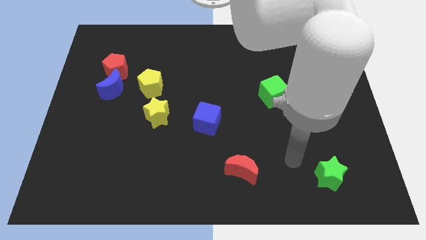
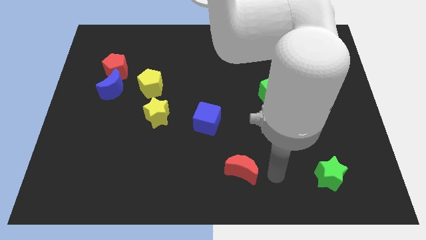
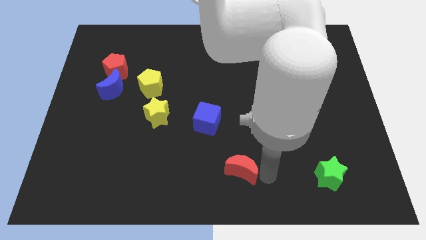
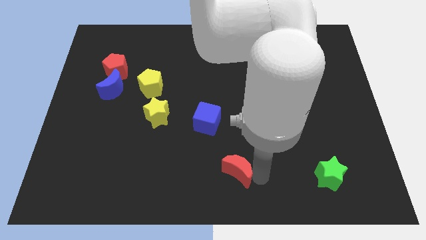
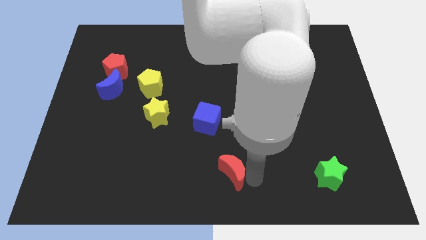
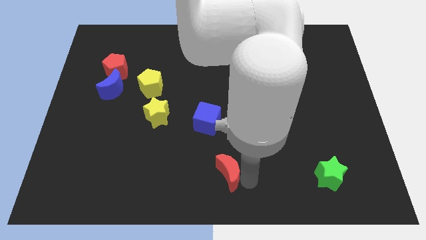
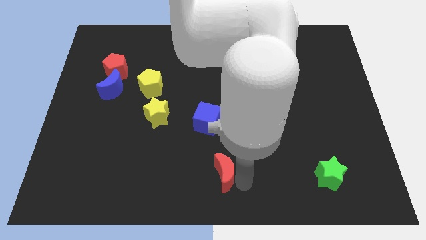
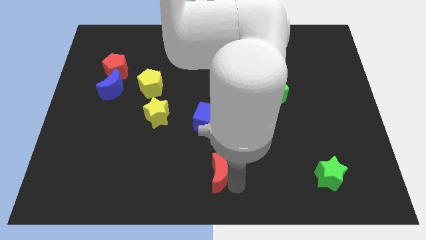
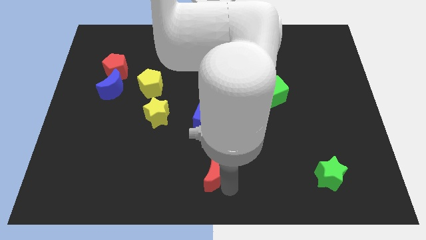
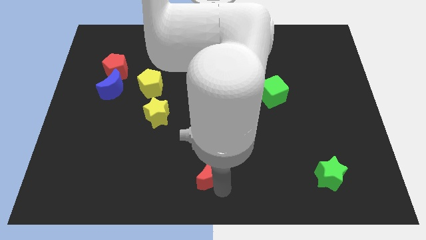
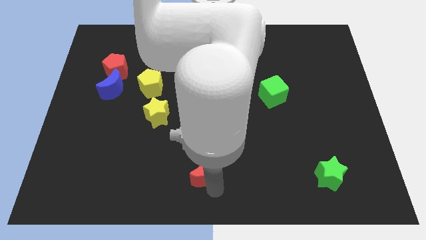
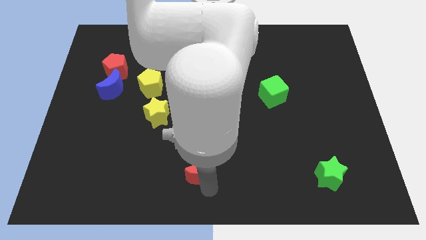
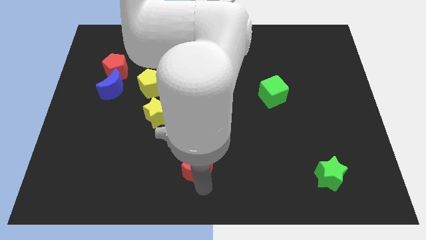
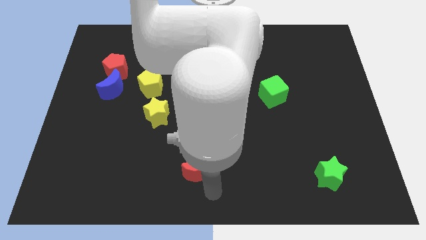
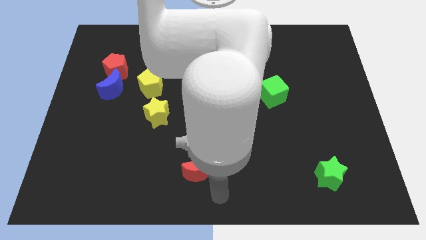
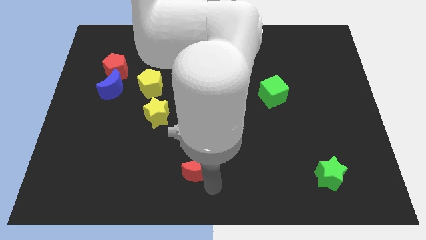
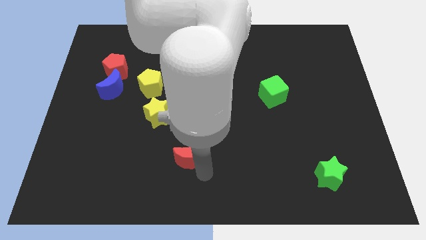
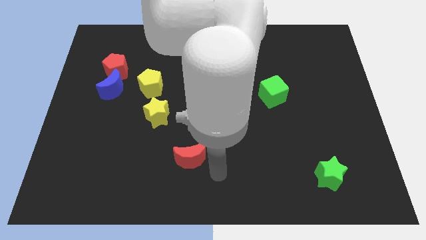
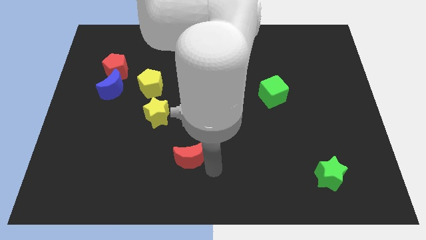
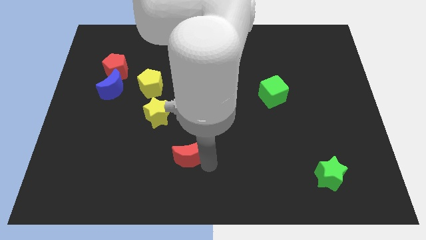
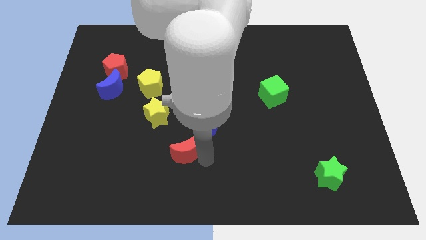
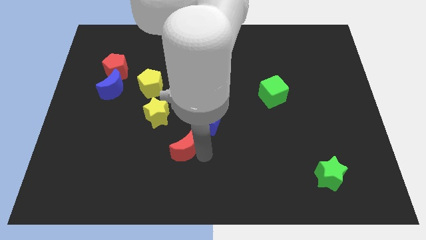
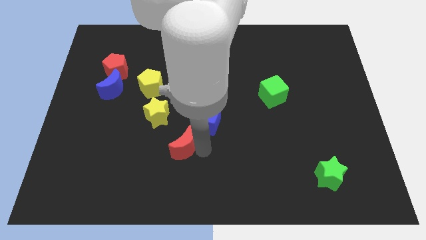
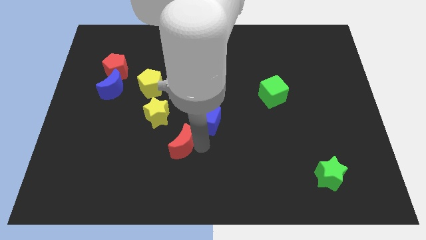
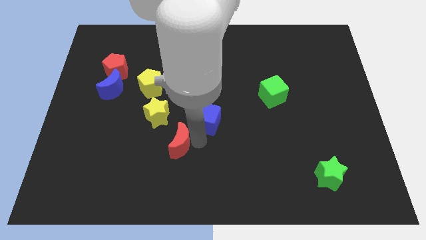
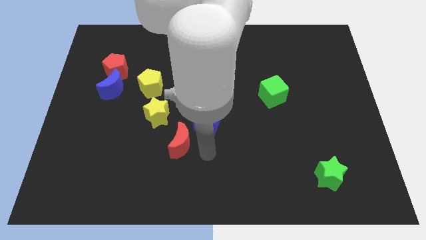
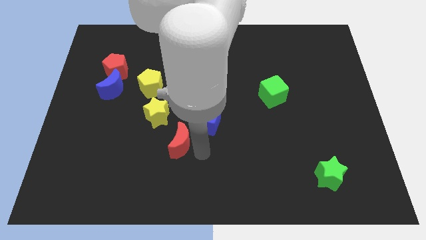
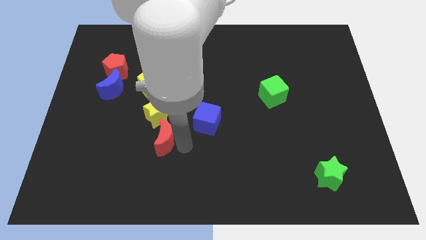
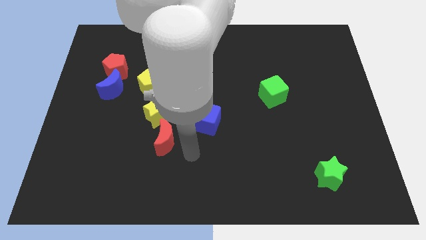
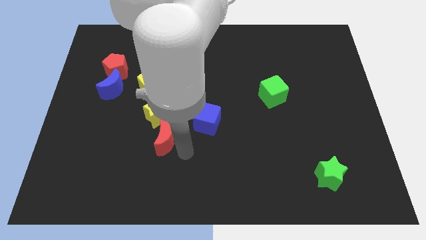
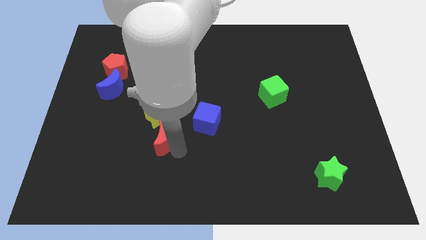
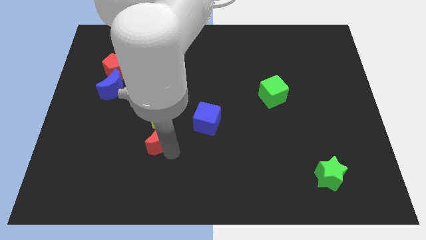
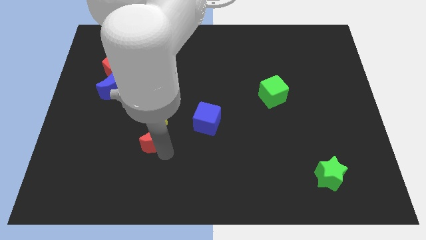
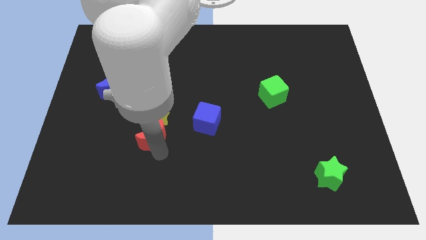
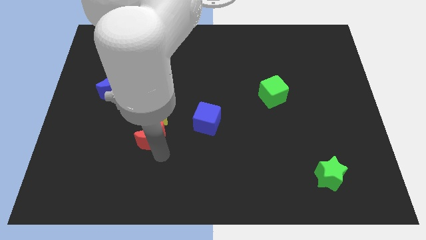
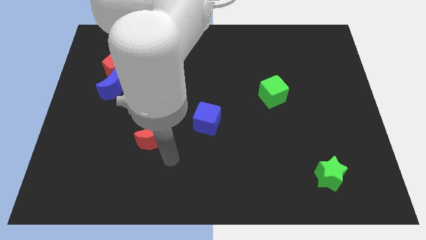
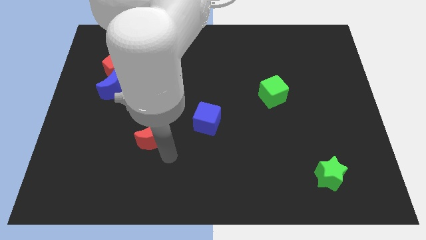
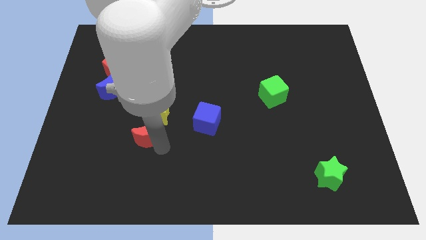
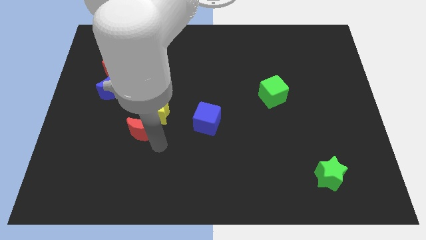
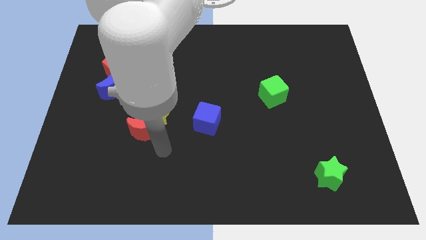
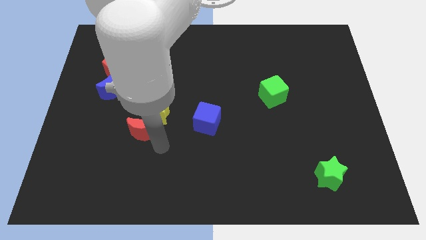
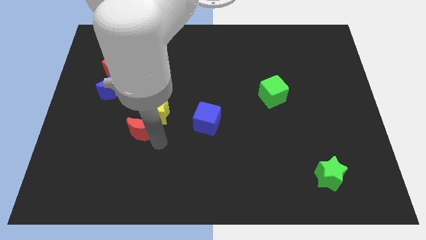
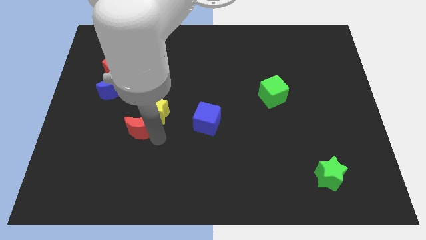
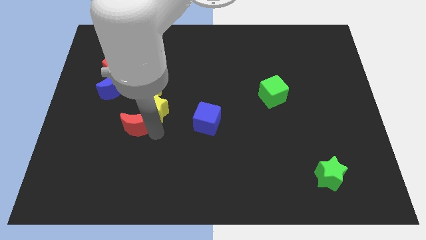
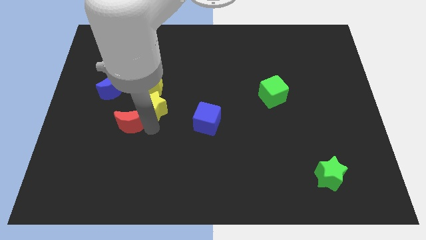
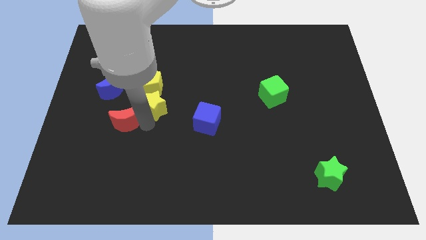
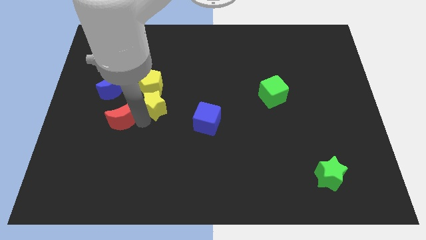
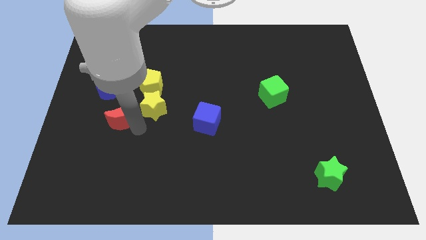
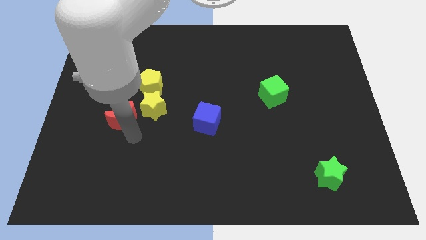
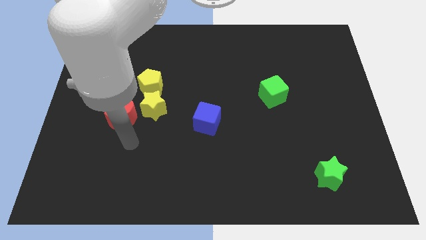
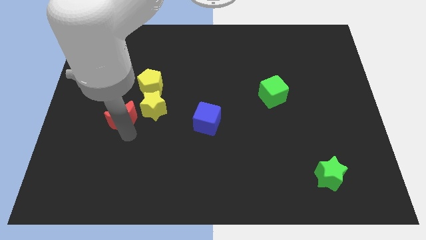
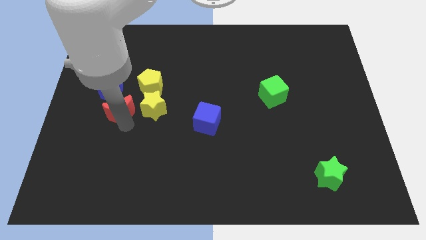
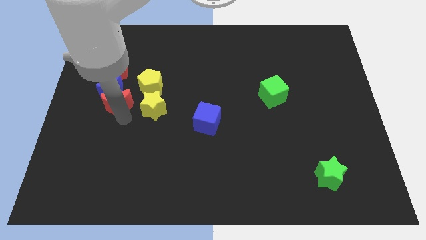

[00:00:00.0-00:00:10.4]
put the red moon towards the blue moon

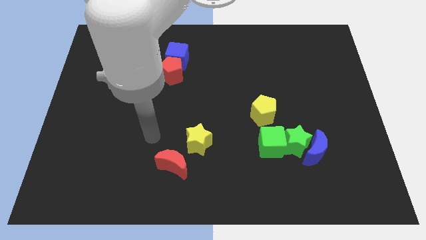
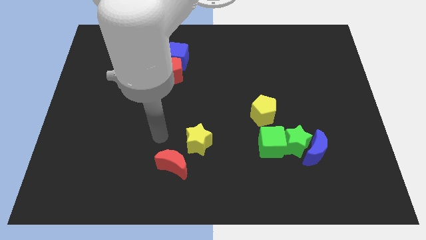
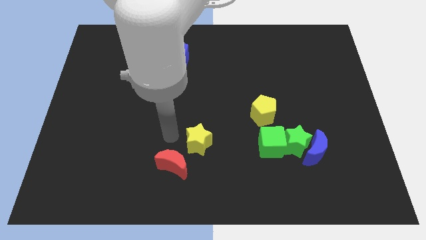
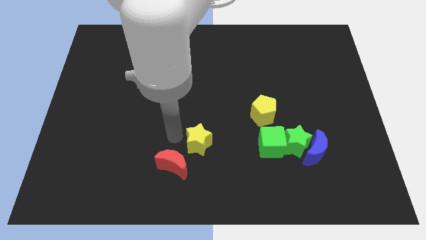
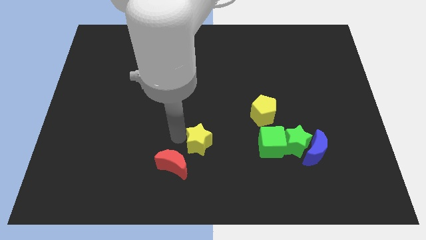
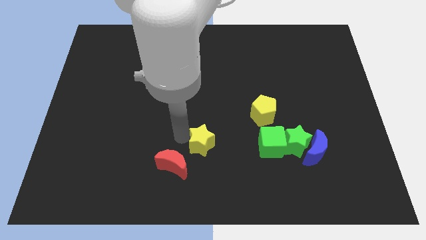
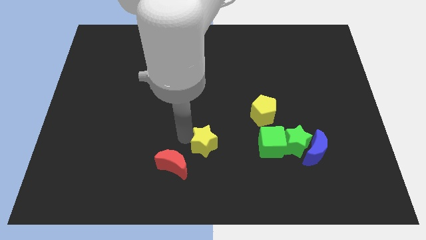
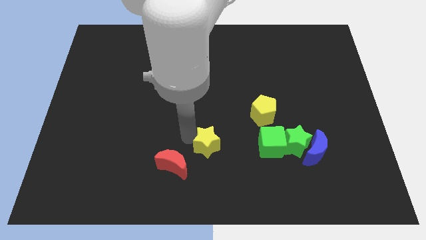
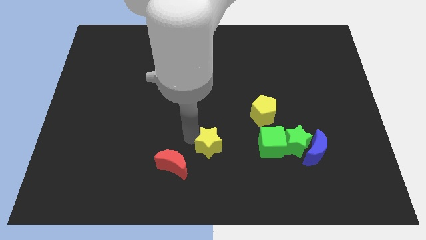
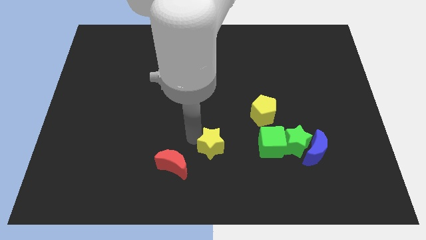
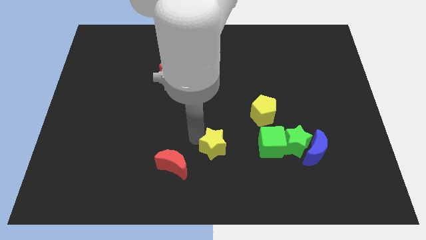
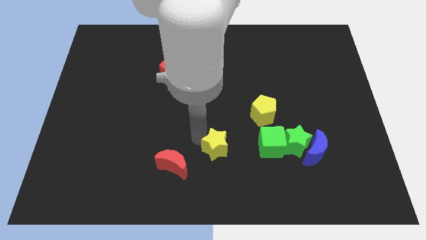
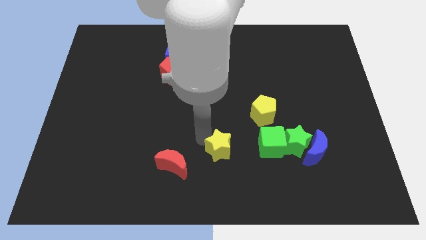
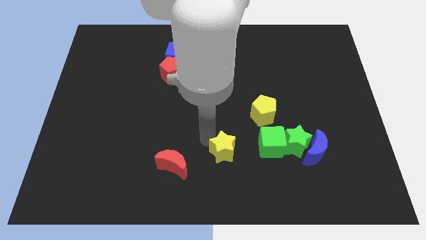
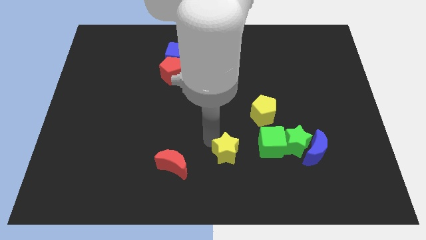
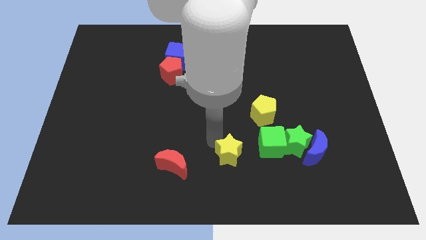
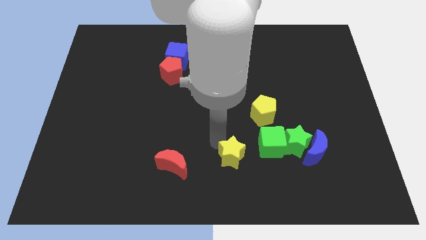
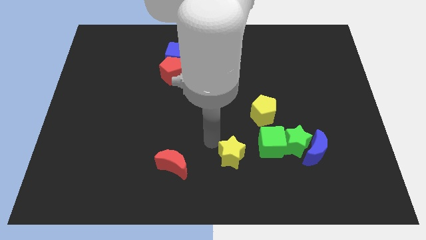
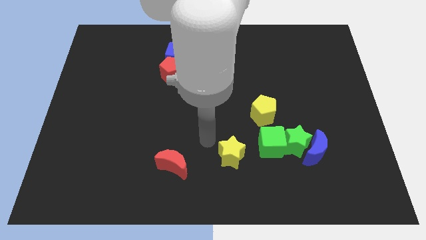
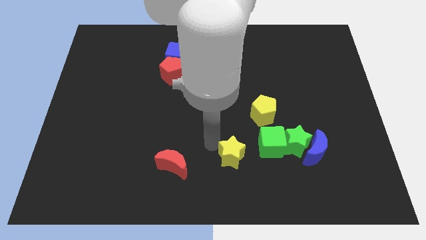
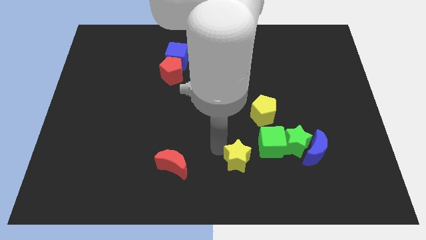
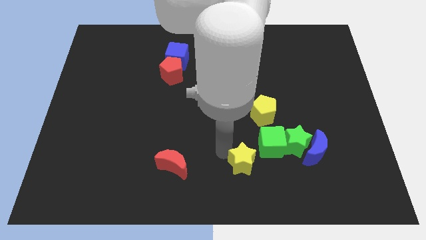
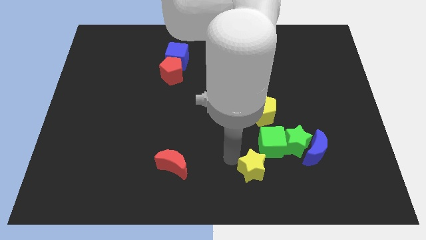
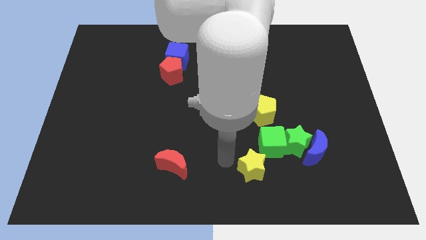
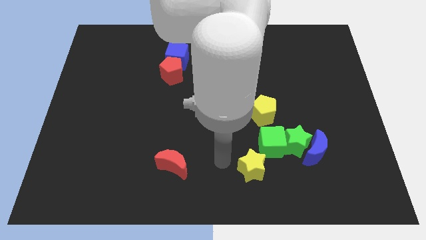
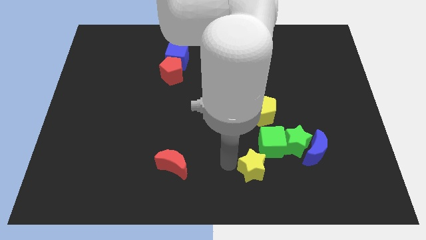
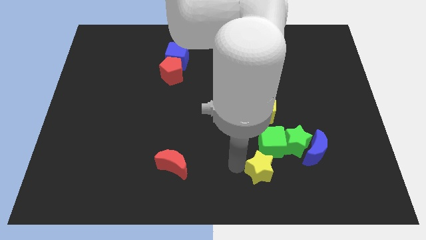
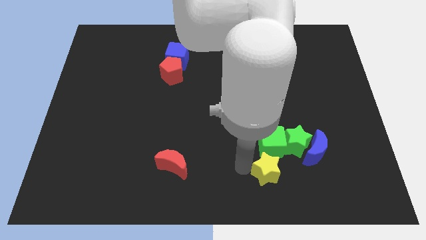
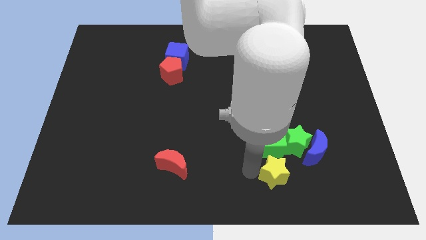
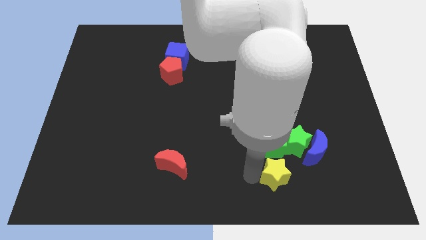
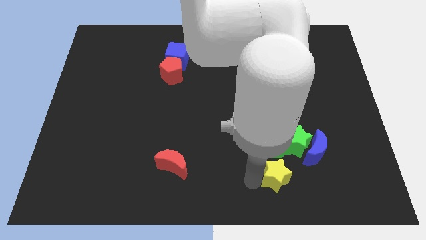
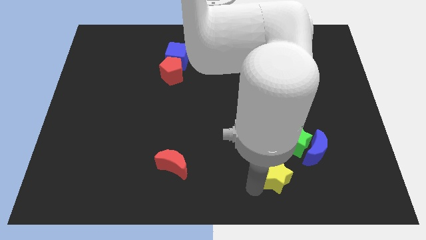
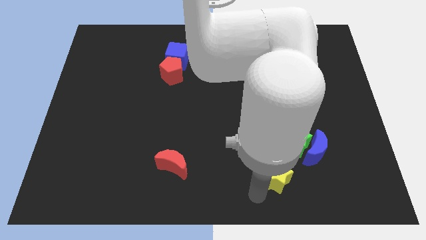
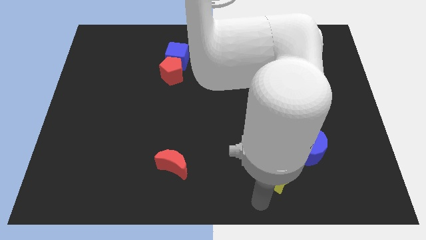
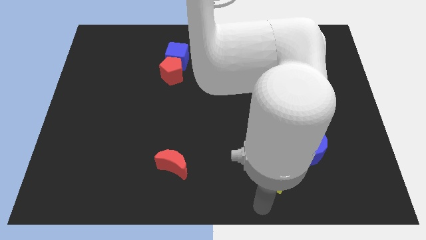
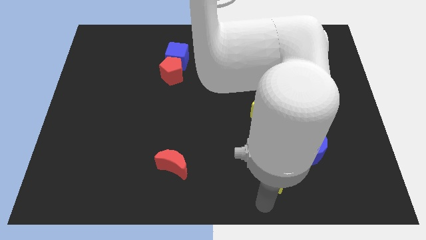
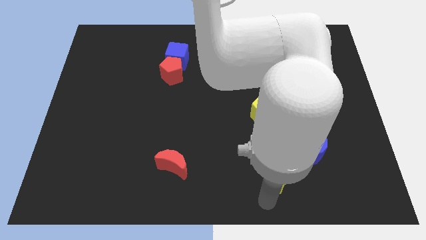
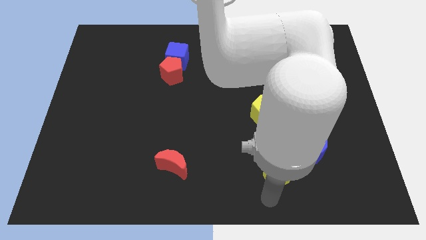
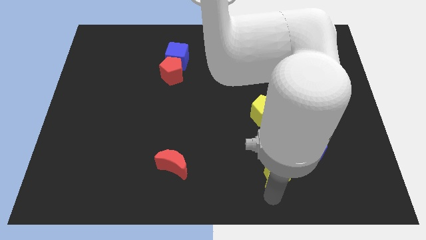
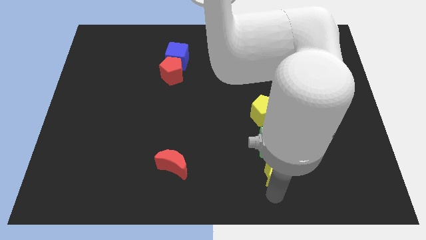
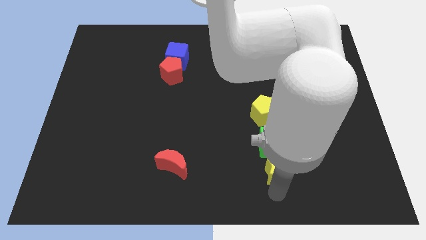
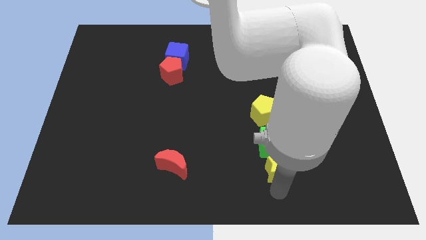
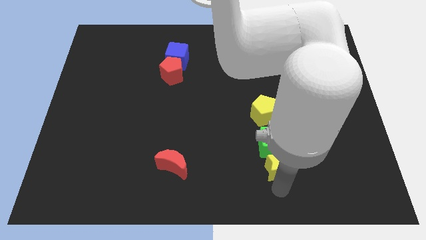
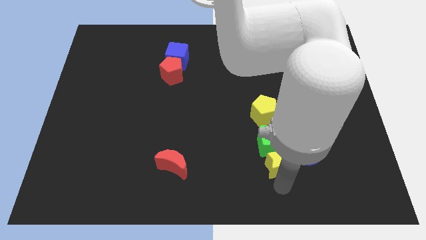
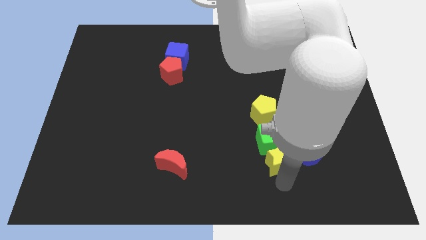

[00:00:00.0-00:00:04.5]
push the yellow star to the green star
